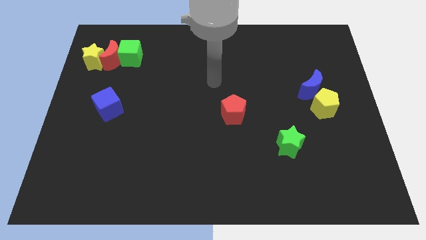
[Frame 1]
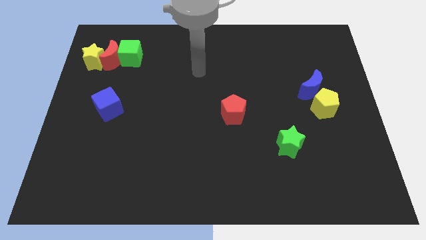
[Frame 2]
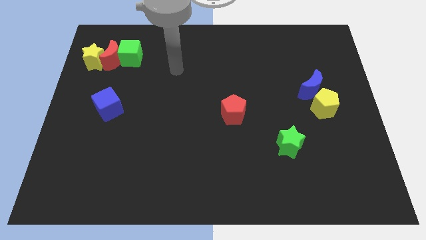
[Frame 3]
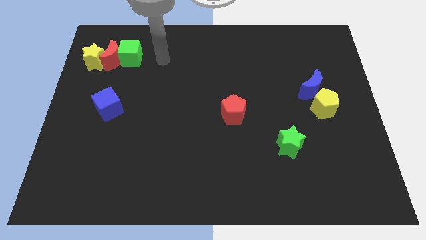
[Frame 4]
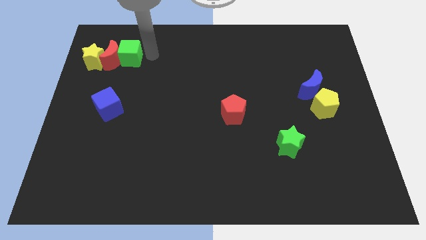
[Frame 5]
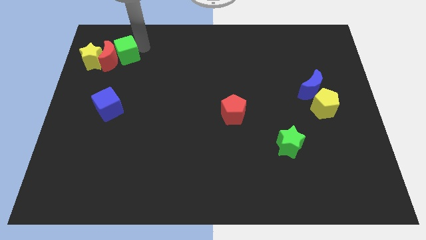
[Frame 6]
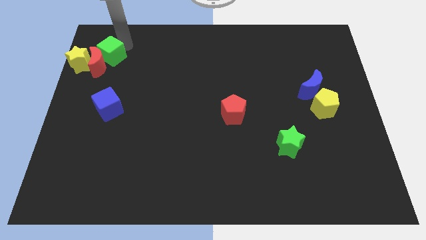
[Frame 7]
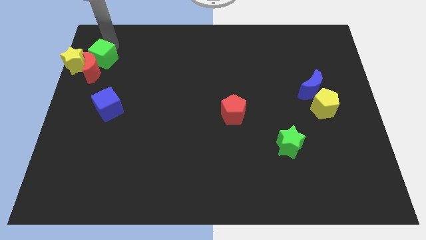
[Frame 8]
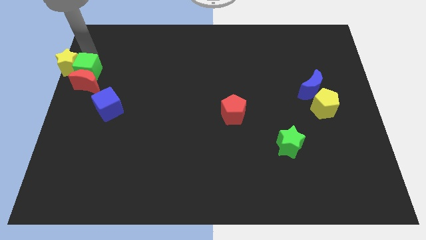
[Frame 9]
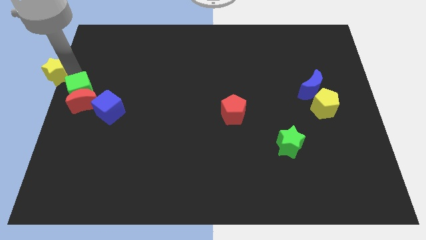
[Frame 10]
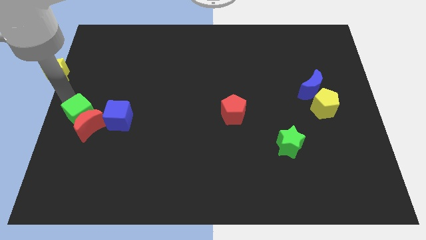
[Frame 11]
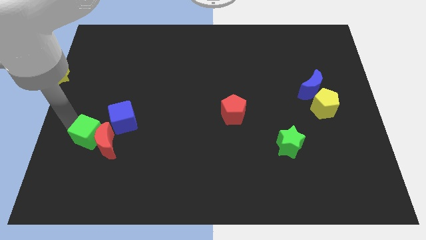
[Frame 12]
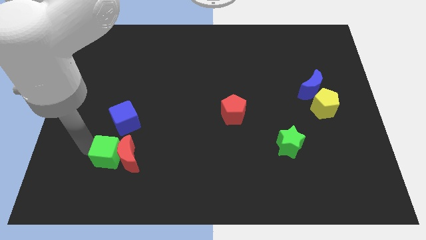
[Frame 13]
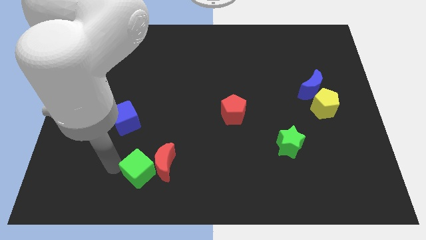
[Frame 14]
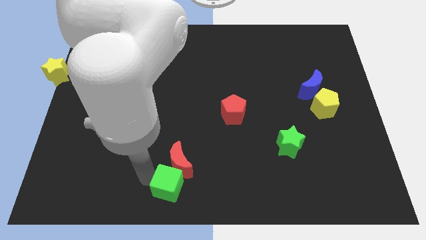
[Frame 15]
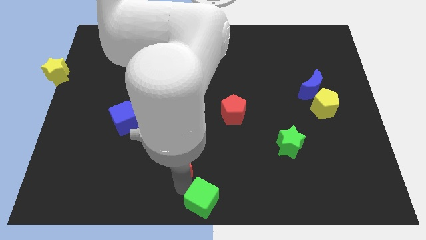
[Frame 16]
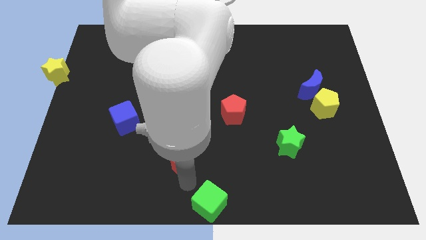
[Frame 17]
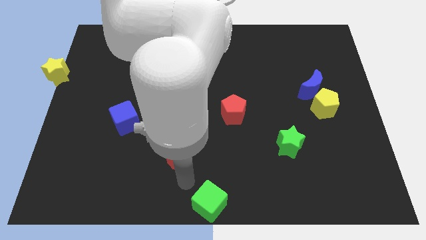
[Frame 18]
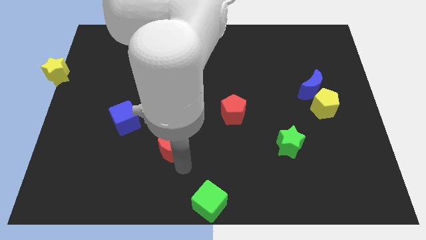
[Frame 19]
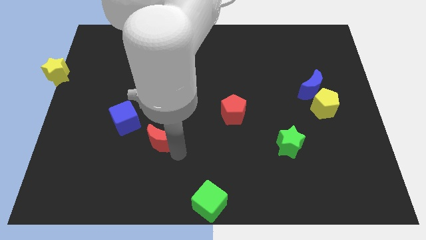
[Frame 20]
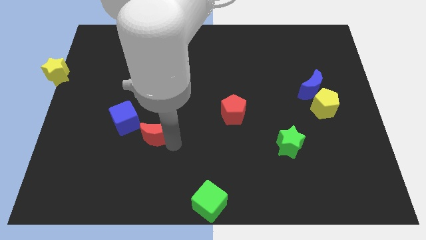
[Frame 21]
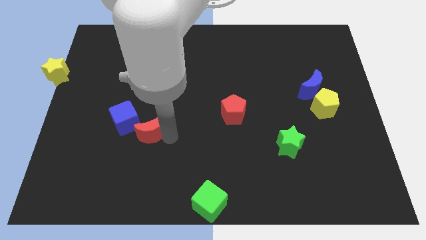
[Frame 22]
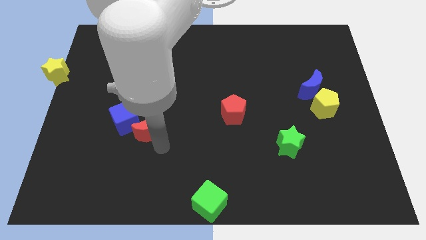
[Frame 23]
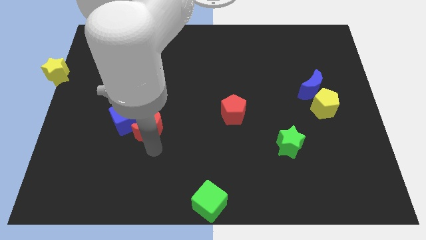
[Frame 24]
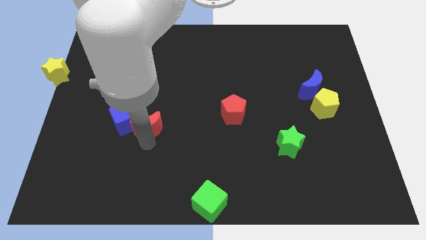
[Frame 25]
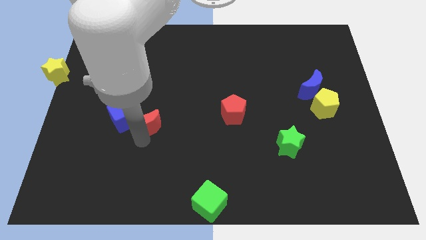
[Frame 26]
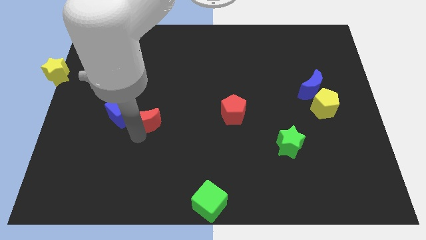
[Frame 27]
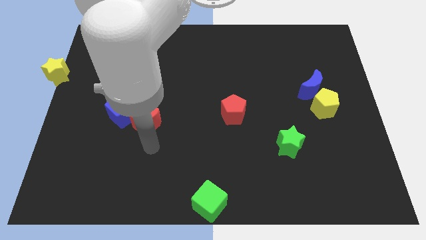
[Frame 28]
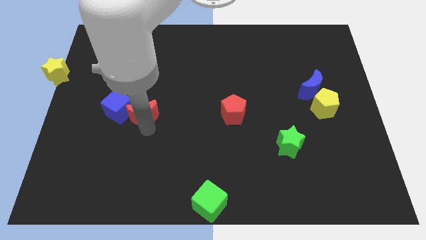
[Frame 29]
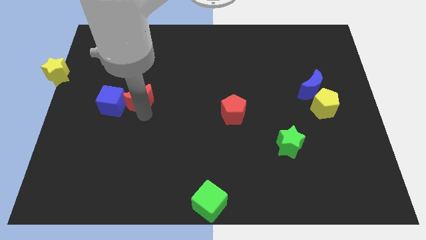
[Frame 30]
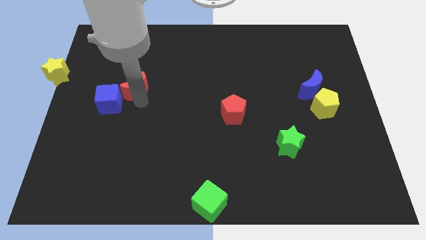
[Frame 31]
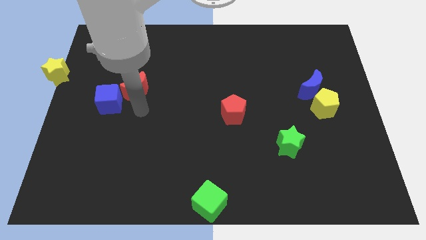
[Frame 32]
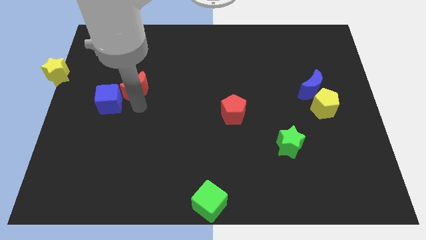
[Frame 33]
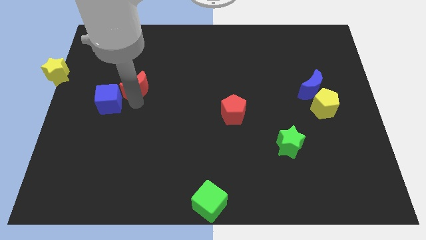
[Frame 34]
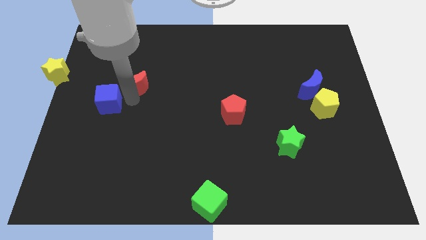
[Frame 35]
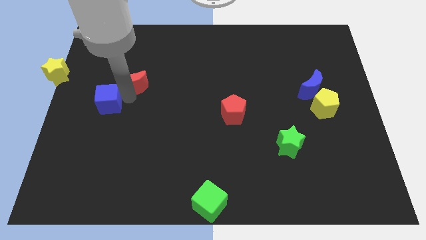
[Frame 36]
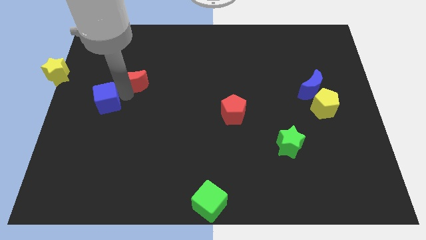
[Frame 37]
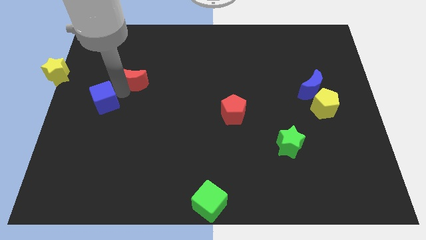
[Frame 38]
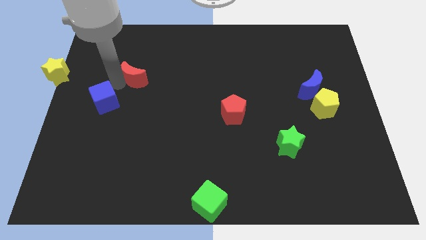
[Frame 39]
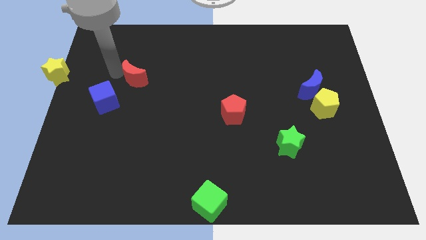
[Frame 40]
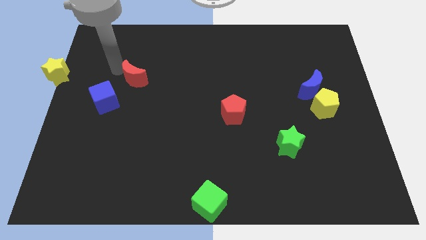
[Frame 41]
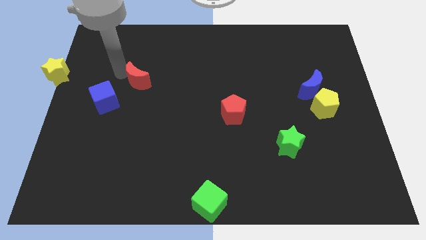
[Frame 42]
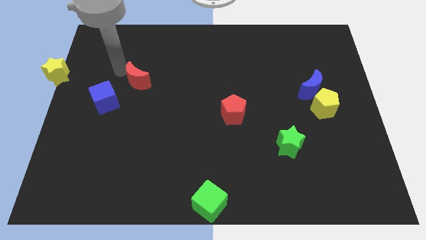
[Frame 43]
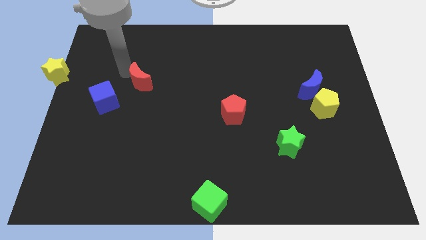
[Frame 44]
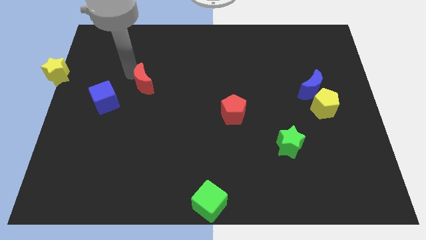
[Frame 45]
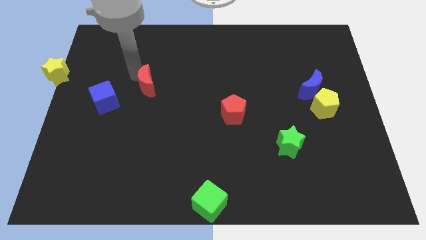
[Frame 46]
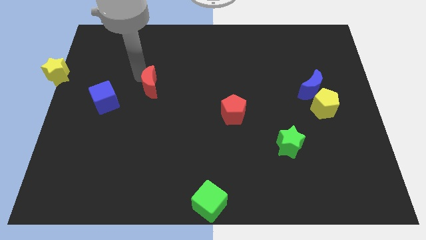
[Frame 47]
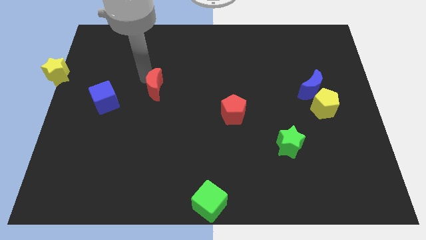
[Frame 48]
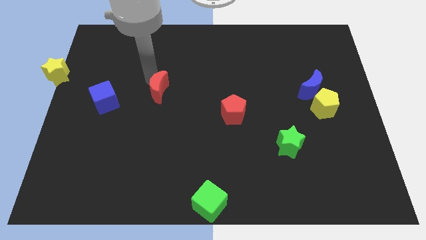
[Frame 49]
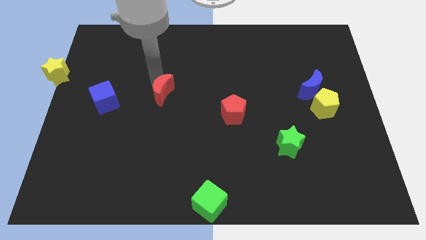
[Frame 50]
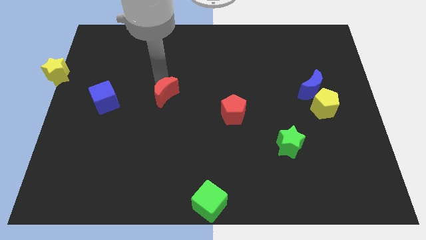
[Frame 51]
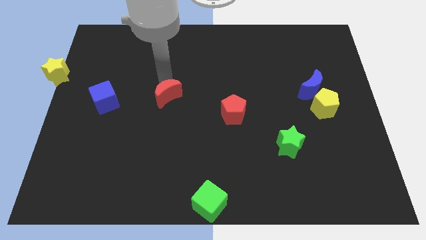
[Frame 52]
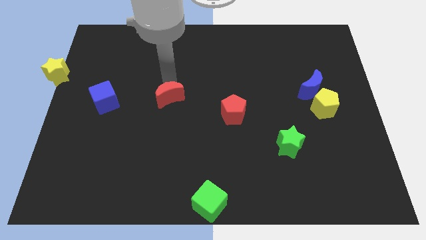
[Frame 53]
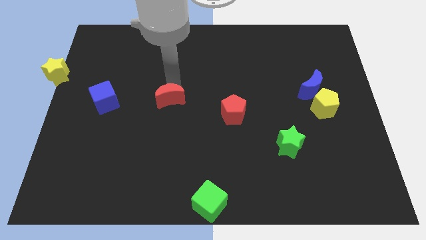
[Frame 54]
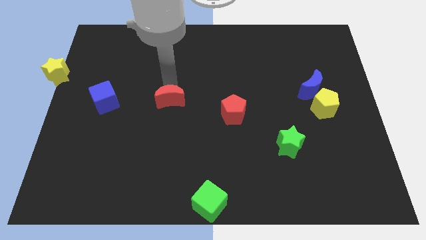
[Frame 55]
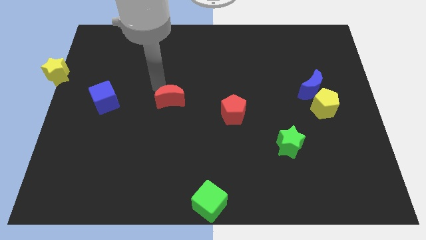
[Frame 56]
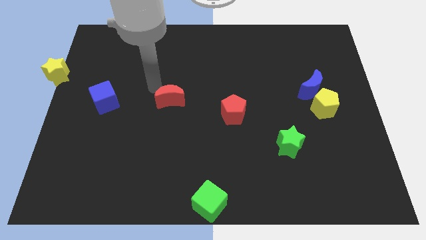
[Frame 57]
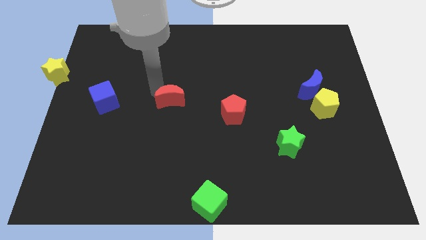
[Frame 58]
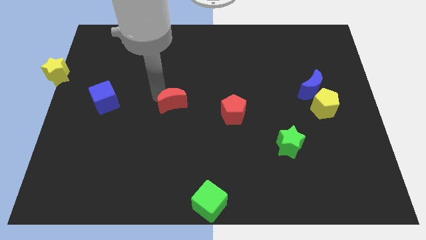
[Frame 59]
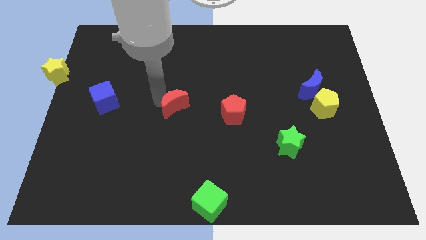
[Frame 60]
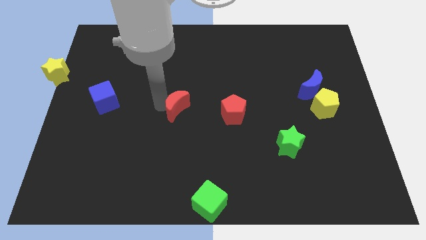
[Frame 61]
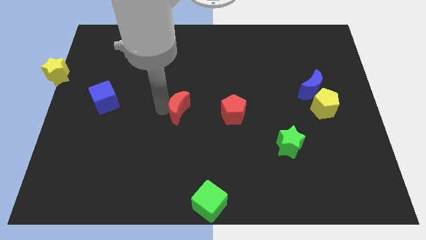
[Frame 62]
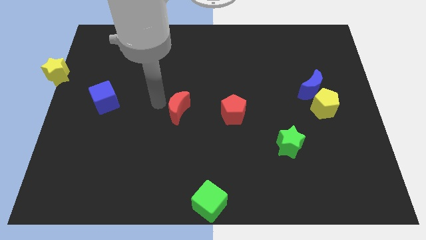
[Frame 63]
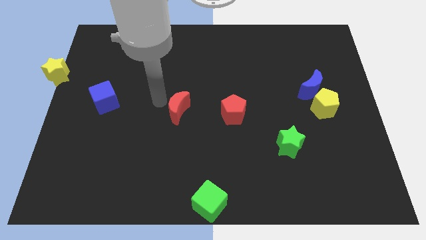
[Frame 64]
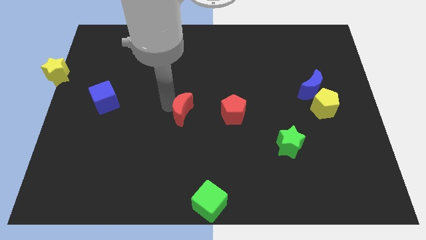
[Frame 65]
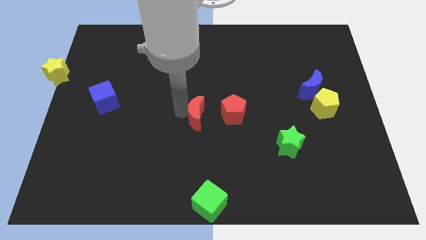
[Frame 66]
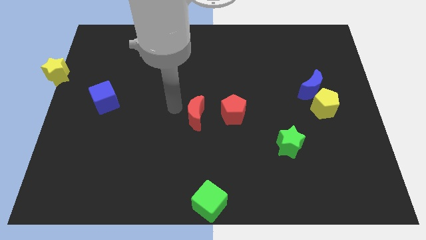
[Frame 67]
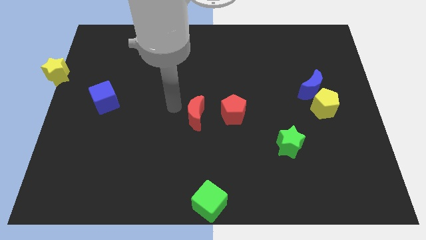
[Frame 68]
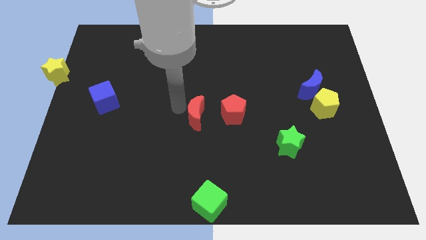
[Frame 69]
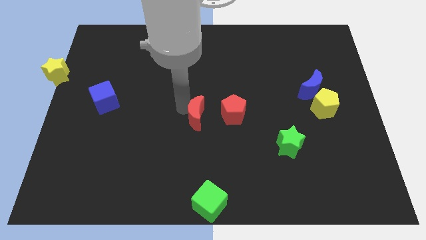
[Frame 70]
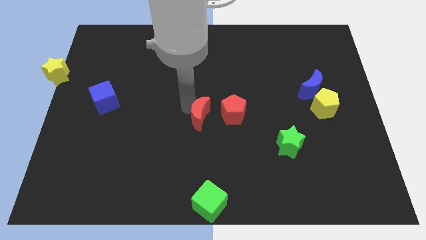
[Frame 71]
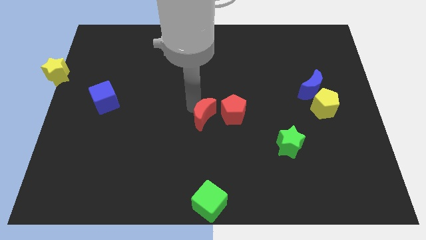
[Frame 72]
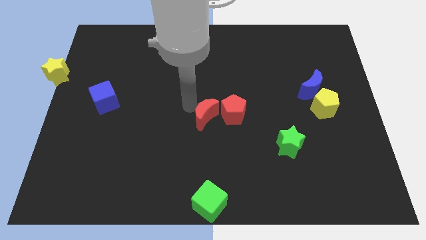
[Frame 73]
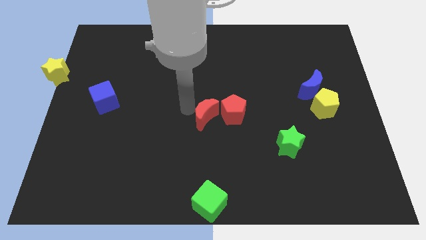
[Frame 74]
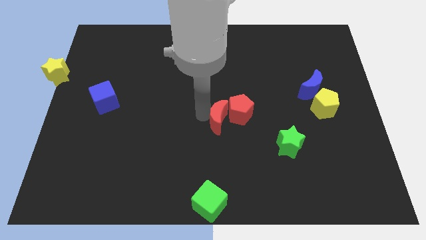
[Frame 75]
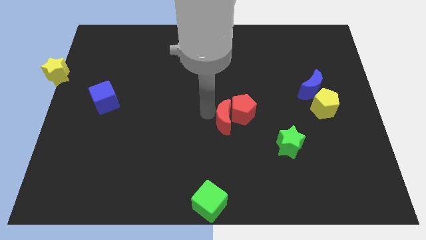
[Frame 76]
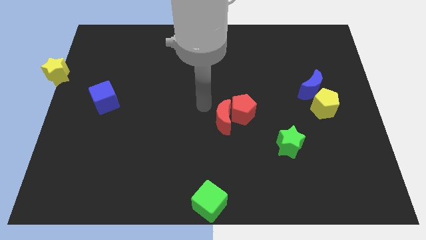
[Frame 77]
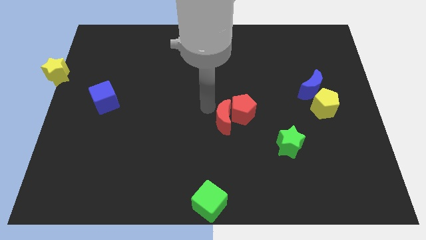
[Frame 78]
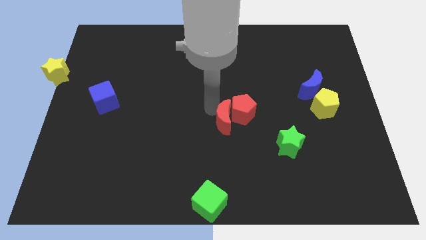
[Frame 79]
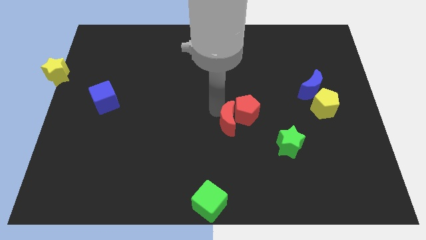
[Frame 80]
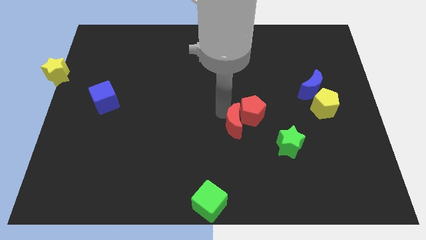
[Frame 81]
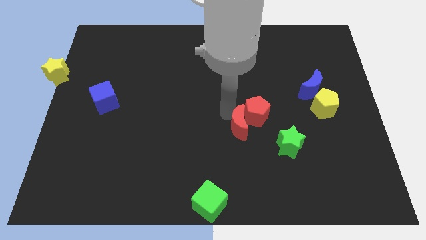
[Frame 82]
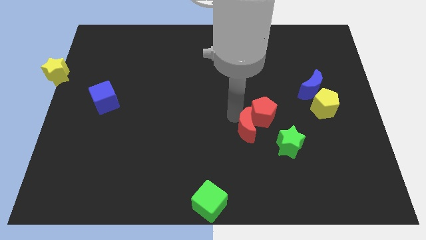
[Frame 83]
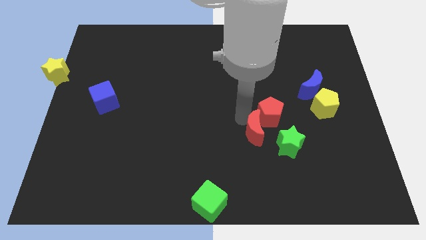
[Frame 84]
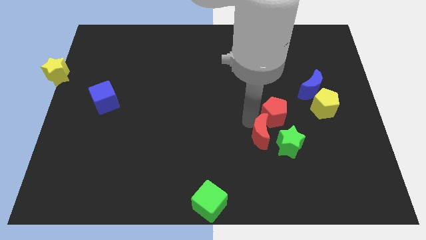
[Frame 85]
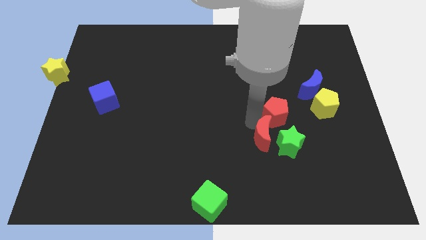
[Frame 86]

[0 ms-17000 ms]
slide the red moon towards the green star
